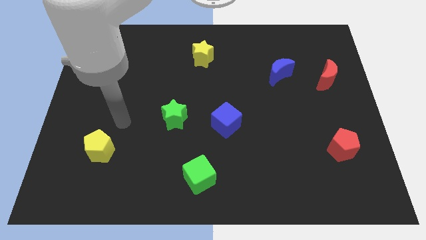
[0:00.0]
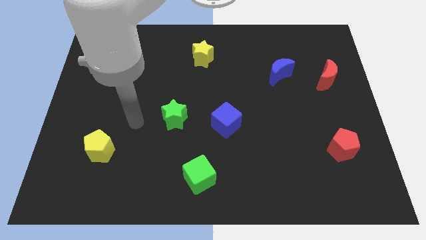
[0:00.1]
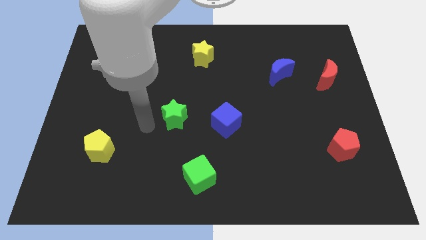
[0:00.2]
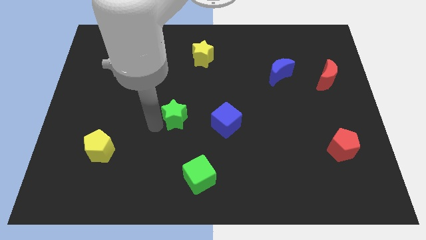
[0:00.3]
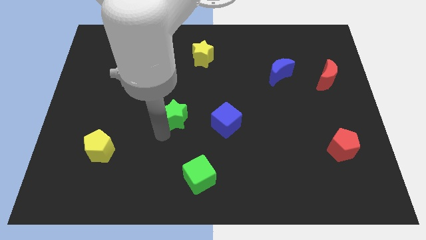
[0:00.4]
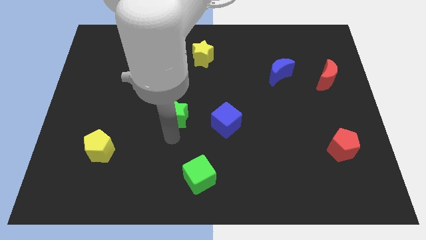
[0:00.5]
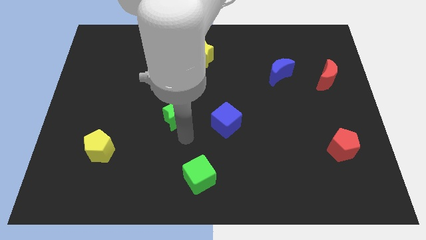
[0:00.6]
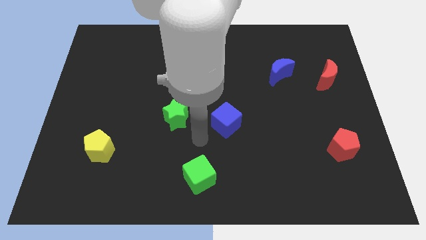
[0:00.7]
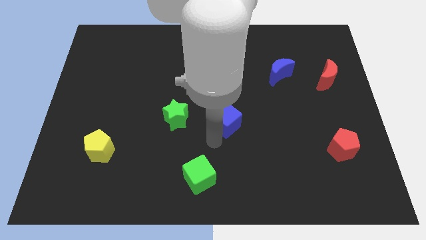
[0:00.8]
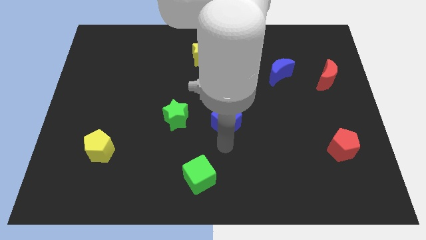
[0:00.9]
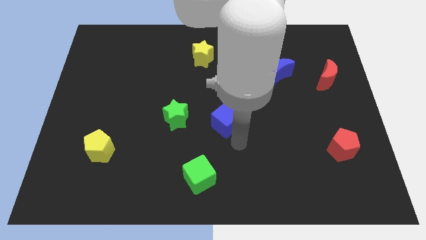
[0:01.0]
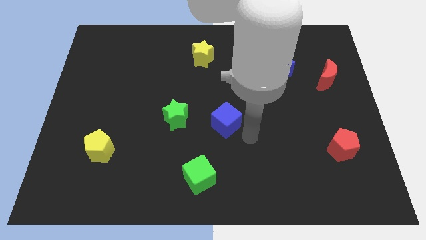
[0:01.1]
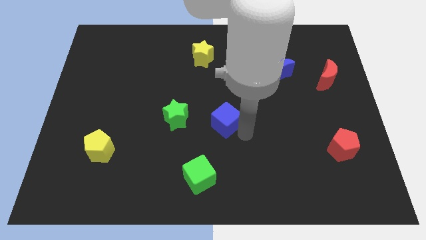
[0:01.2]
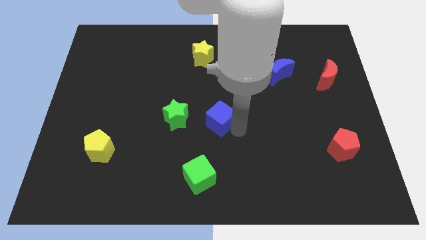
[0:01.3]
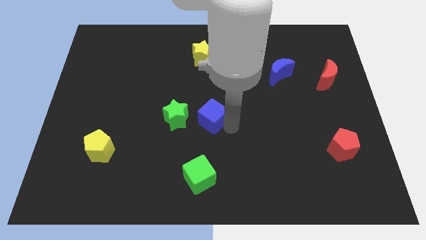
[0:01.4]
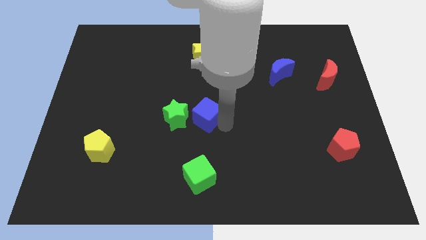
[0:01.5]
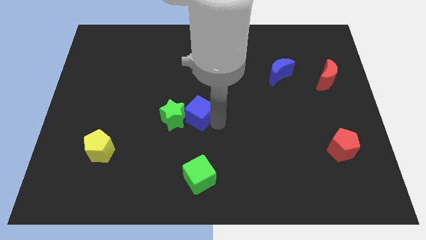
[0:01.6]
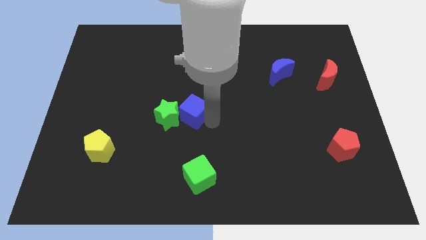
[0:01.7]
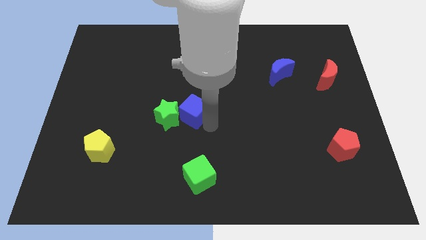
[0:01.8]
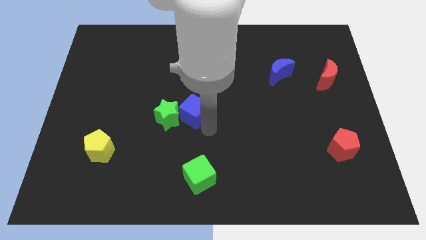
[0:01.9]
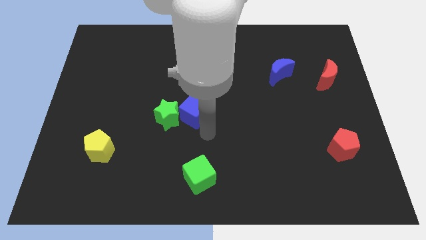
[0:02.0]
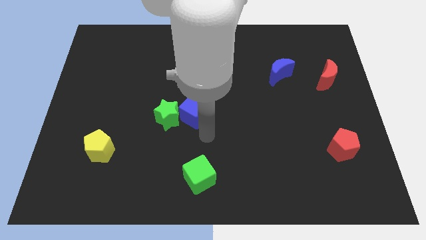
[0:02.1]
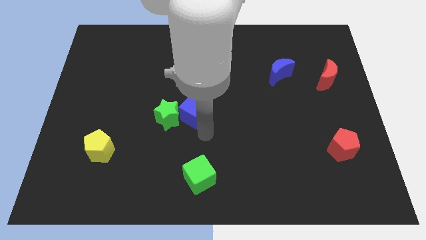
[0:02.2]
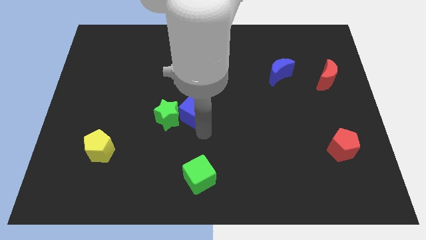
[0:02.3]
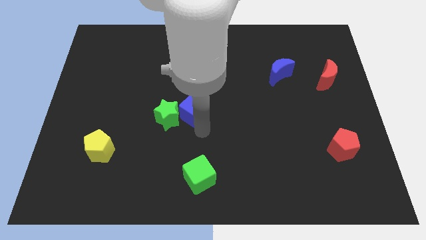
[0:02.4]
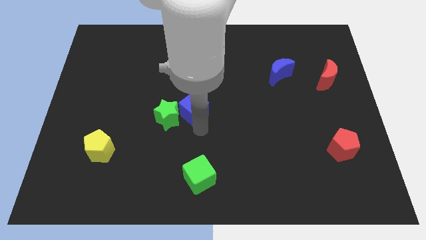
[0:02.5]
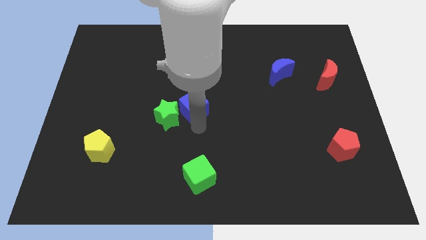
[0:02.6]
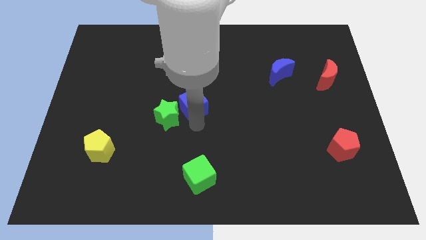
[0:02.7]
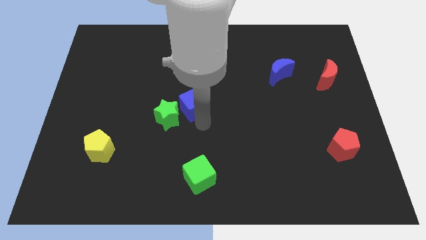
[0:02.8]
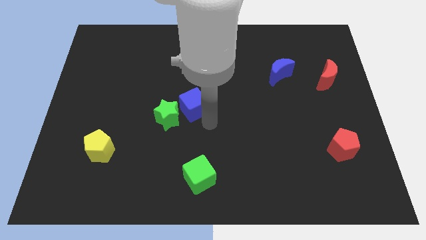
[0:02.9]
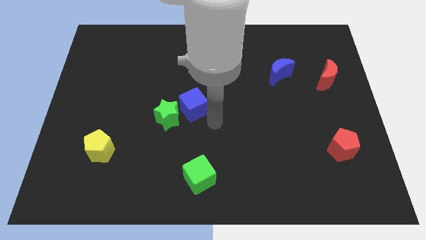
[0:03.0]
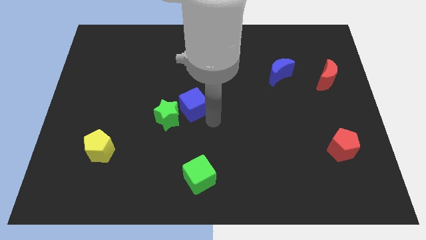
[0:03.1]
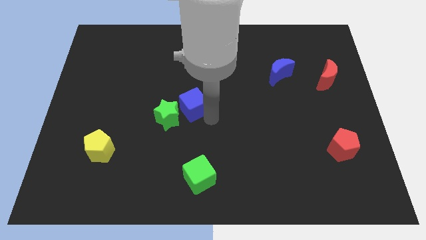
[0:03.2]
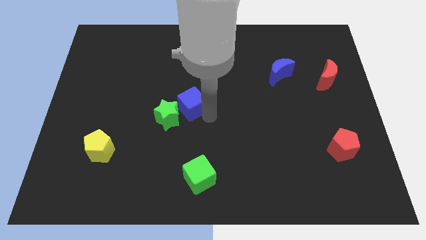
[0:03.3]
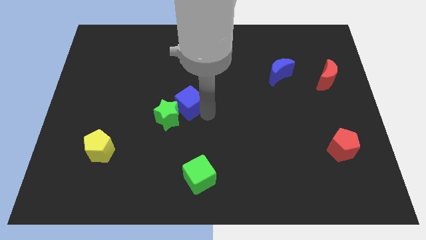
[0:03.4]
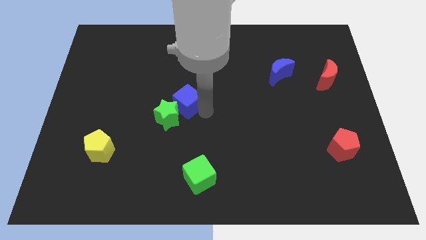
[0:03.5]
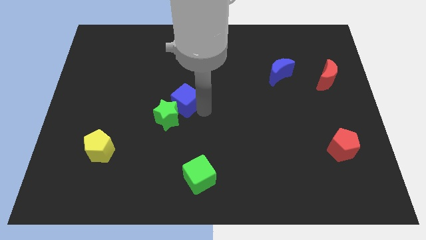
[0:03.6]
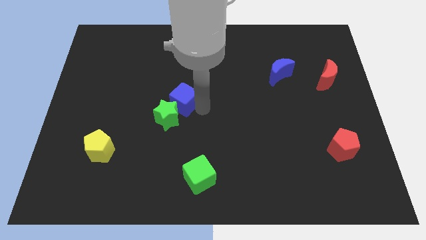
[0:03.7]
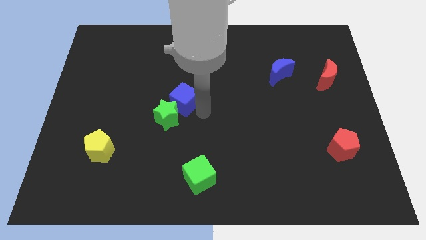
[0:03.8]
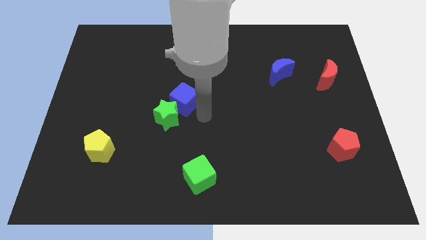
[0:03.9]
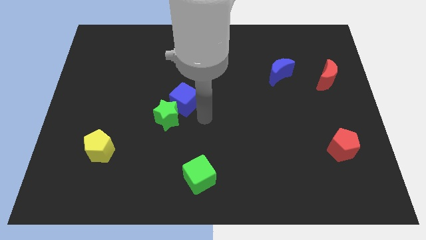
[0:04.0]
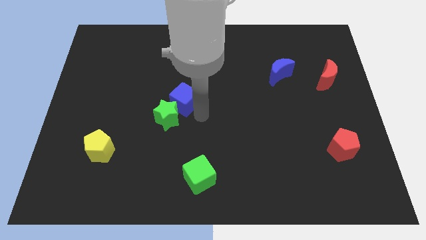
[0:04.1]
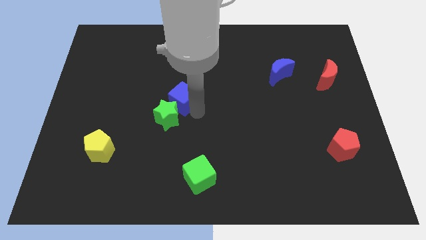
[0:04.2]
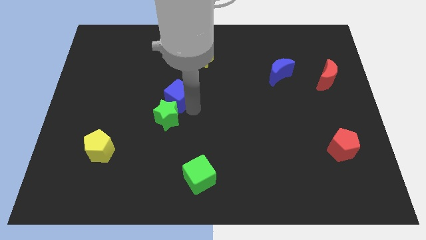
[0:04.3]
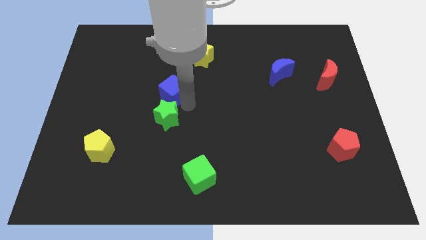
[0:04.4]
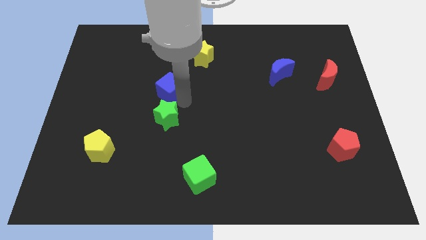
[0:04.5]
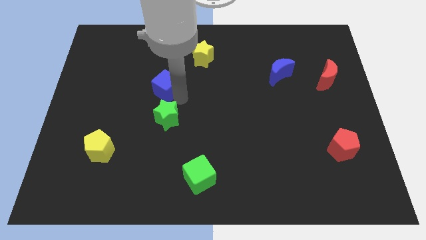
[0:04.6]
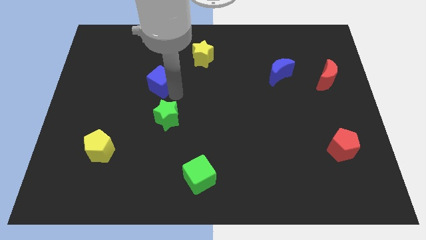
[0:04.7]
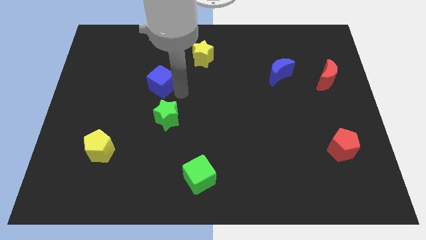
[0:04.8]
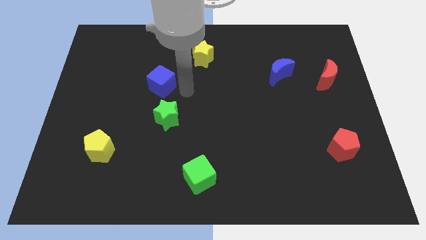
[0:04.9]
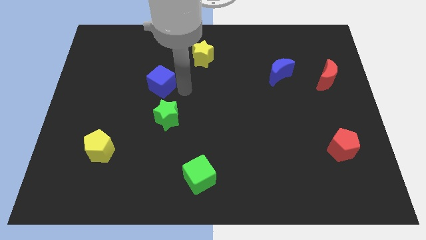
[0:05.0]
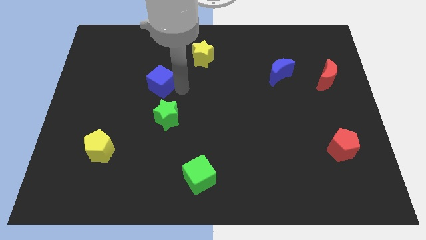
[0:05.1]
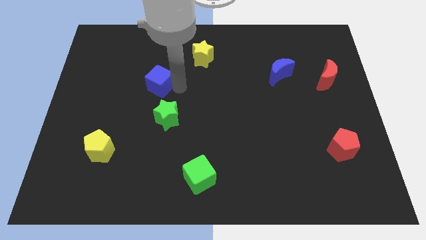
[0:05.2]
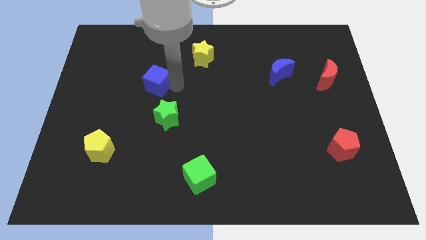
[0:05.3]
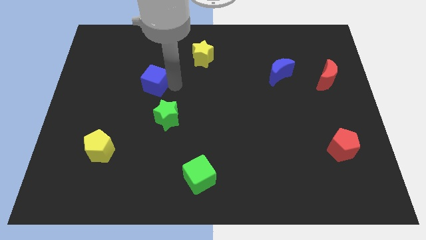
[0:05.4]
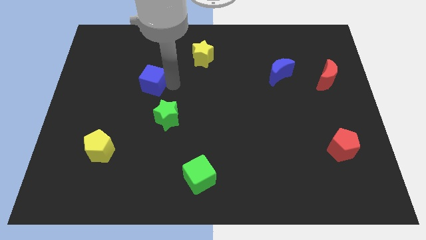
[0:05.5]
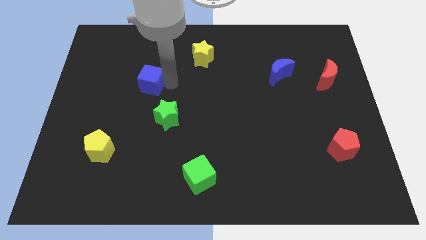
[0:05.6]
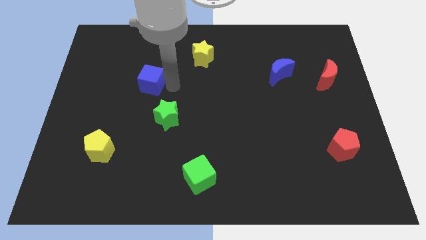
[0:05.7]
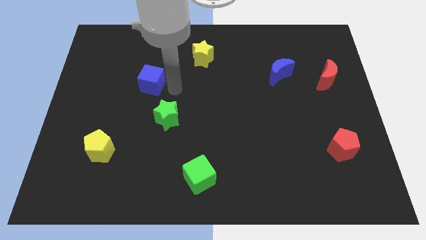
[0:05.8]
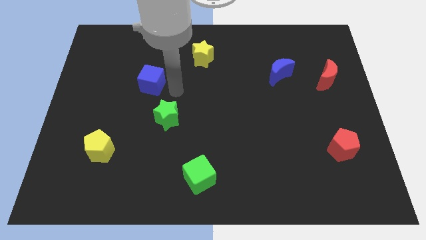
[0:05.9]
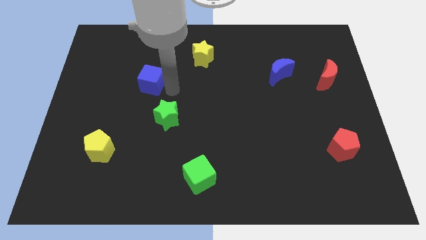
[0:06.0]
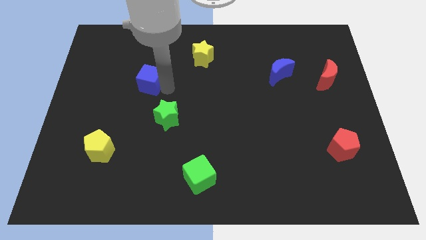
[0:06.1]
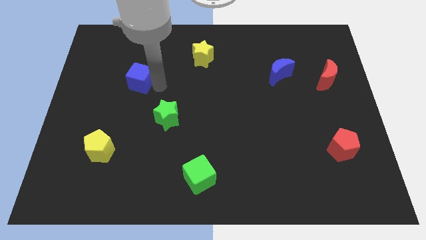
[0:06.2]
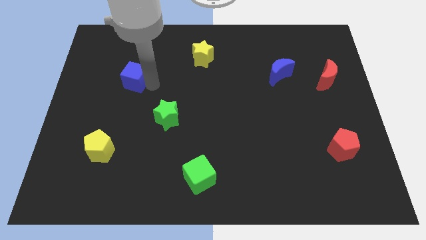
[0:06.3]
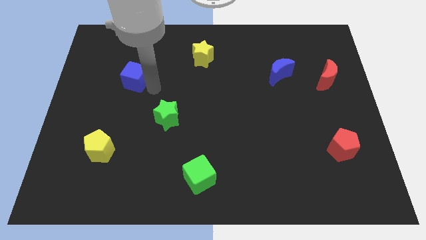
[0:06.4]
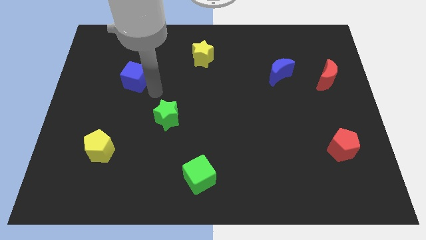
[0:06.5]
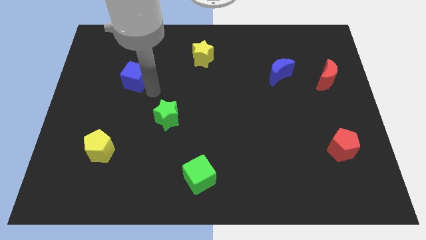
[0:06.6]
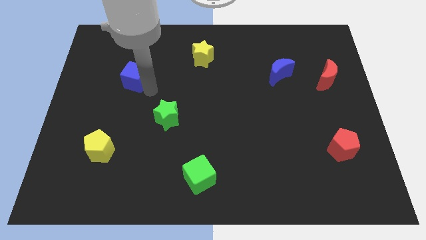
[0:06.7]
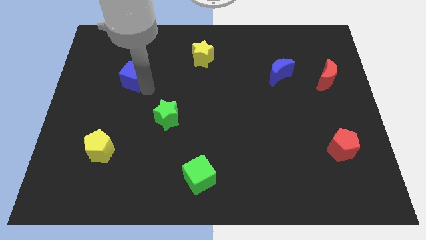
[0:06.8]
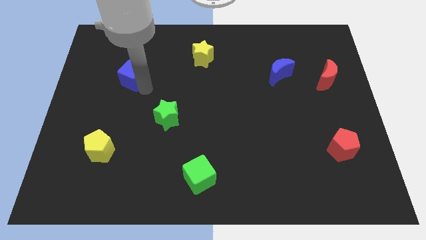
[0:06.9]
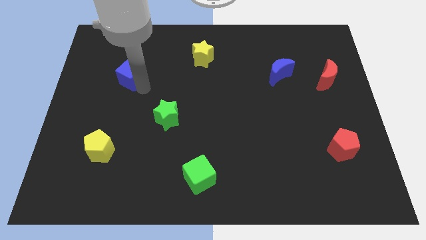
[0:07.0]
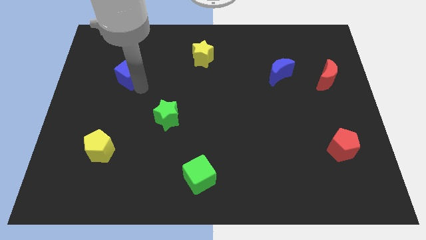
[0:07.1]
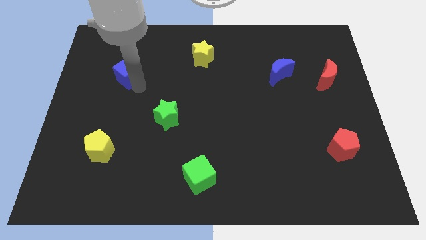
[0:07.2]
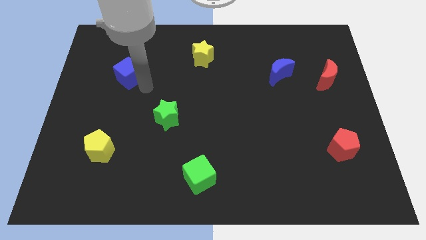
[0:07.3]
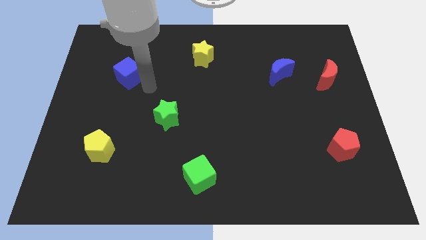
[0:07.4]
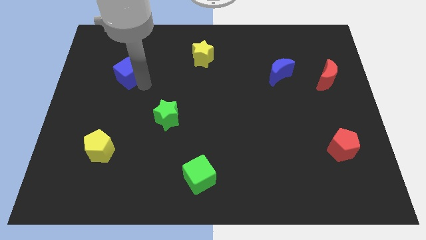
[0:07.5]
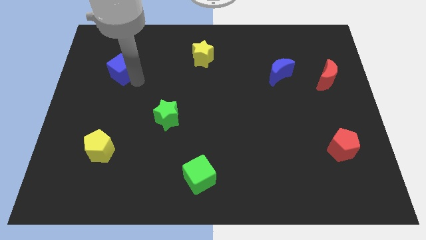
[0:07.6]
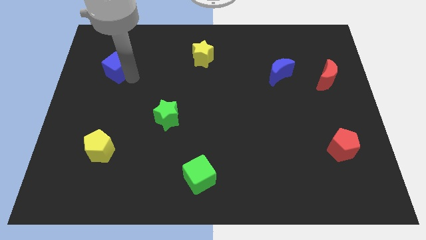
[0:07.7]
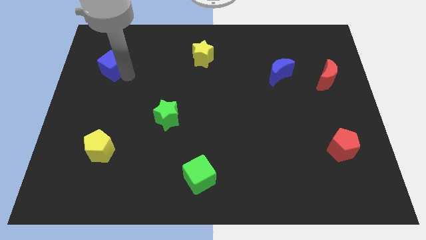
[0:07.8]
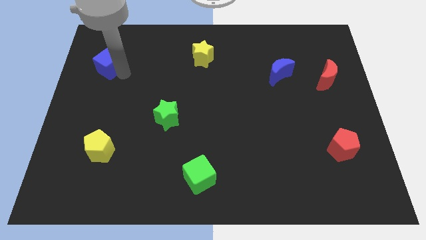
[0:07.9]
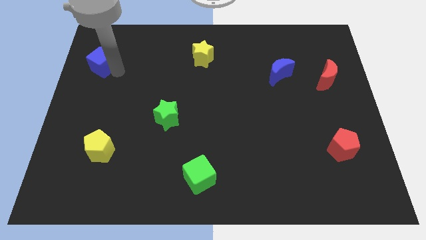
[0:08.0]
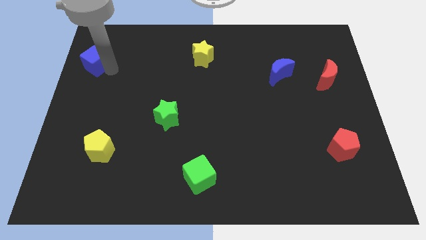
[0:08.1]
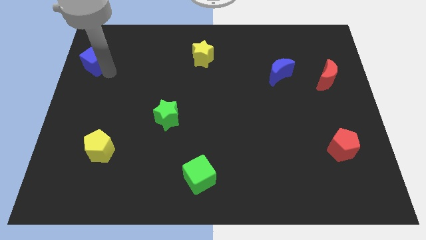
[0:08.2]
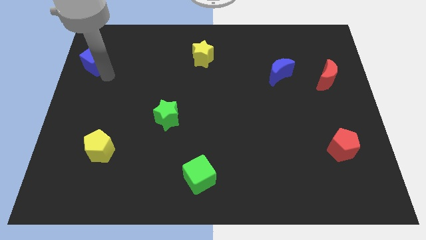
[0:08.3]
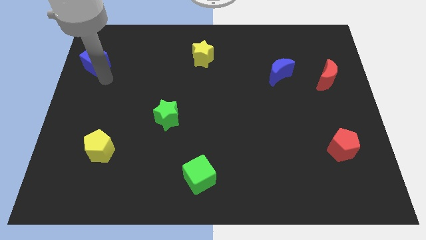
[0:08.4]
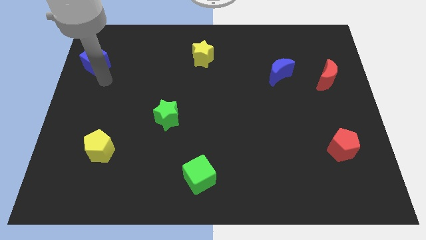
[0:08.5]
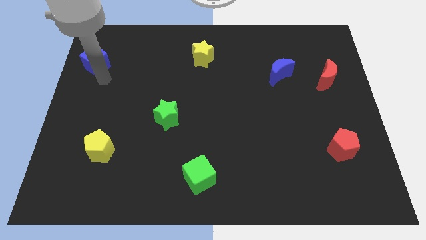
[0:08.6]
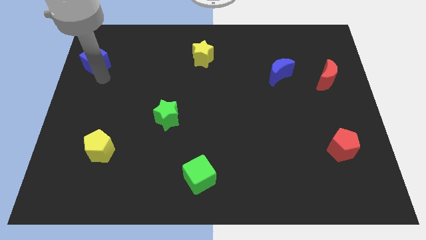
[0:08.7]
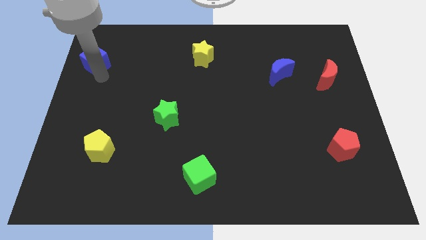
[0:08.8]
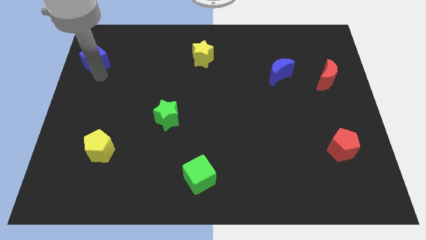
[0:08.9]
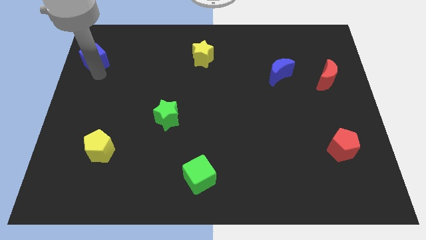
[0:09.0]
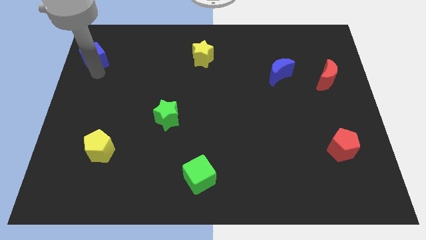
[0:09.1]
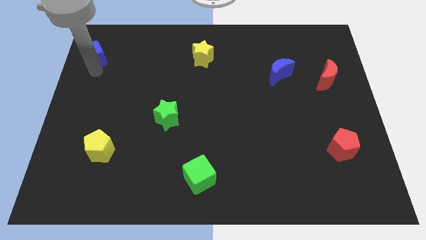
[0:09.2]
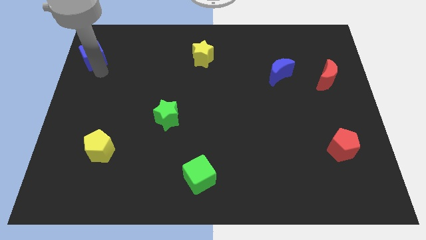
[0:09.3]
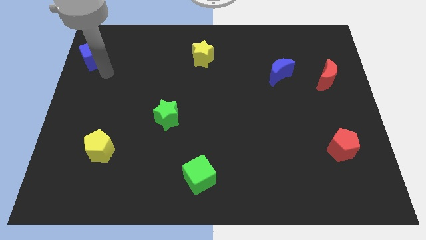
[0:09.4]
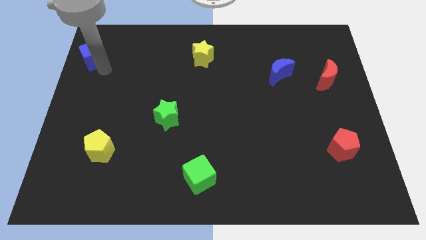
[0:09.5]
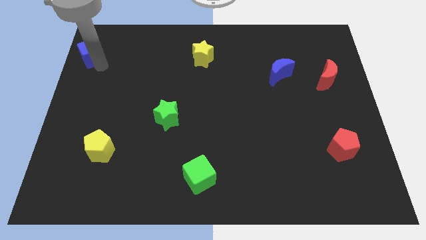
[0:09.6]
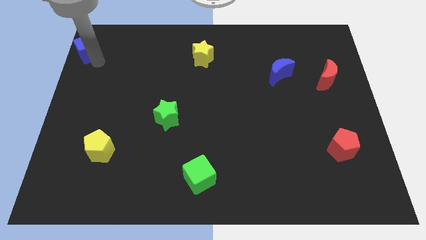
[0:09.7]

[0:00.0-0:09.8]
put the blue cube to the top left corner
